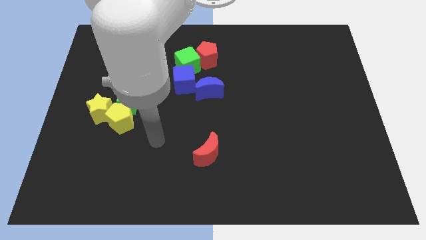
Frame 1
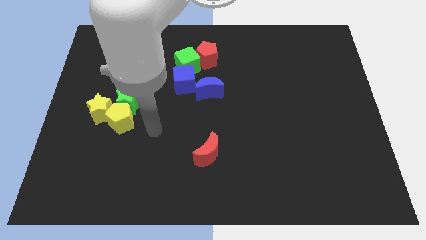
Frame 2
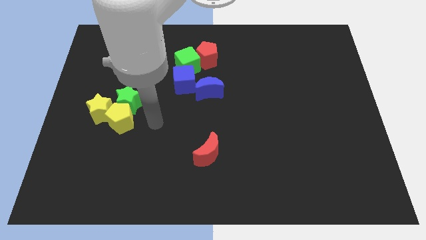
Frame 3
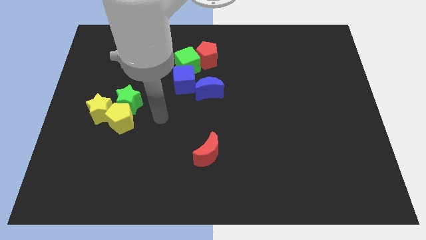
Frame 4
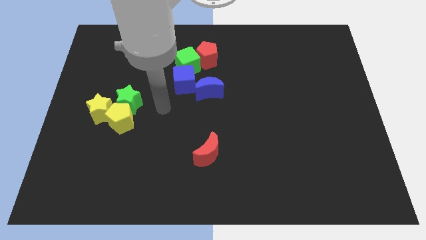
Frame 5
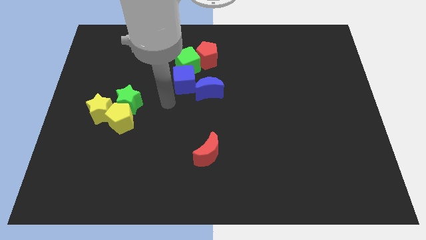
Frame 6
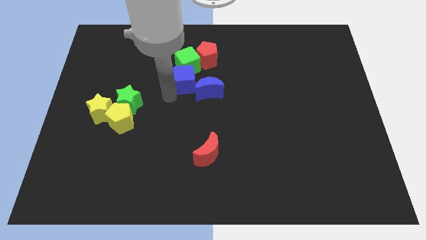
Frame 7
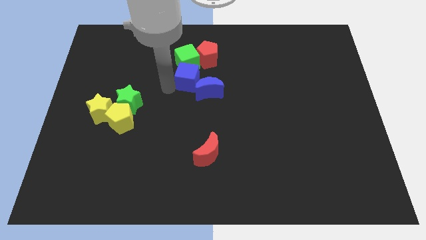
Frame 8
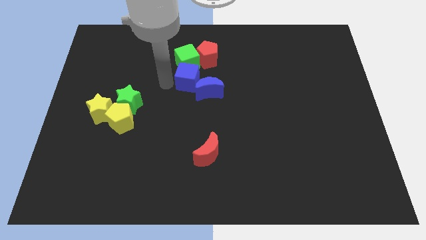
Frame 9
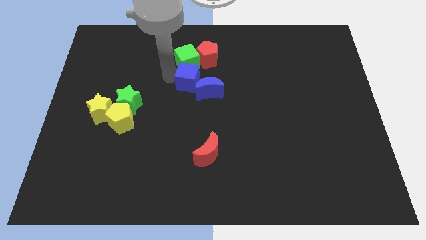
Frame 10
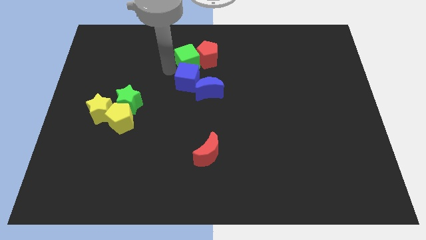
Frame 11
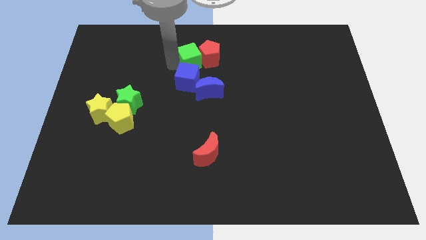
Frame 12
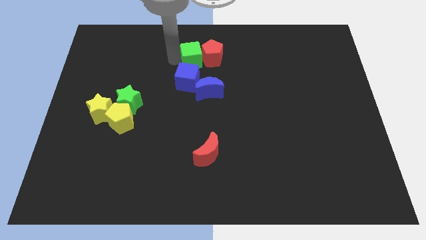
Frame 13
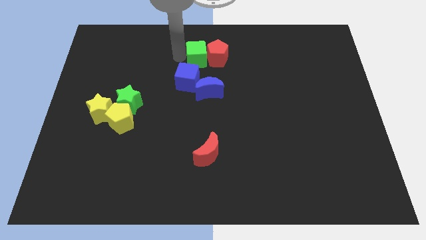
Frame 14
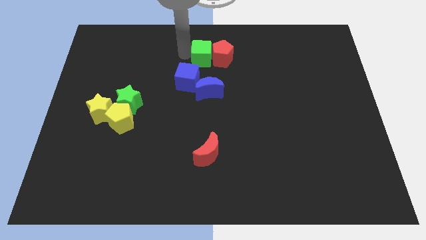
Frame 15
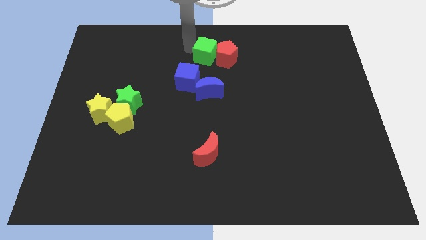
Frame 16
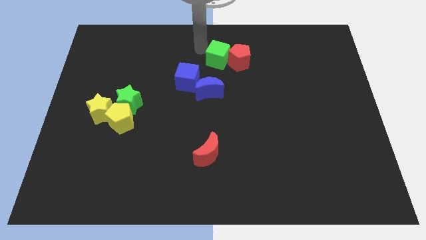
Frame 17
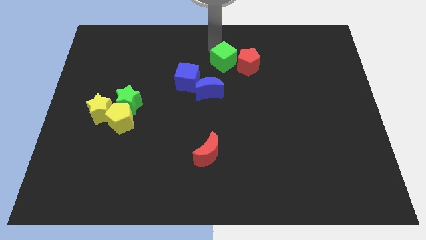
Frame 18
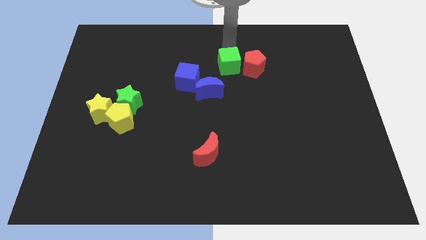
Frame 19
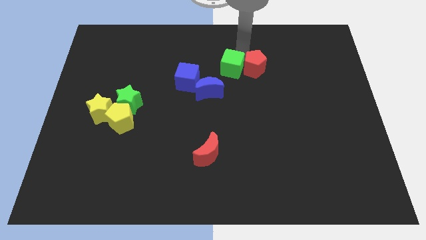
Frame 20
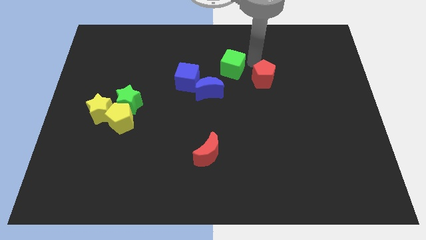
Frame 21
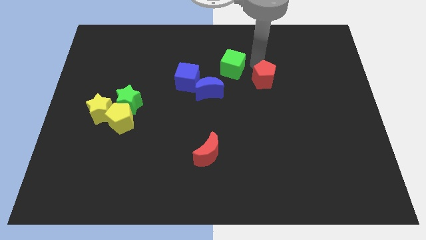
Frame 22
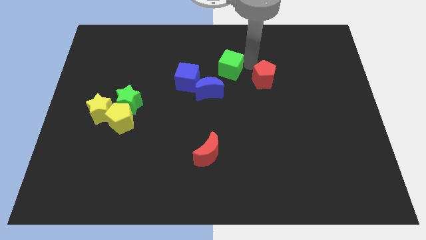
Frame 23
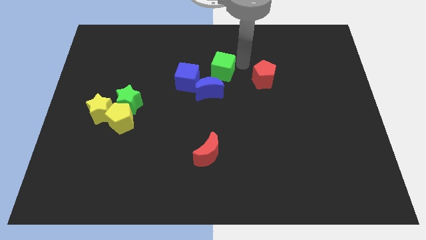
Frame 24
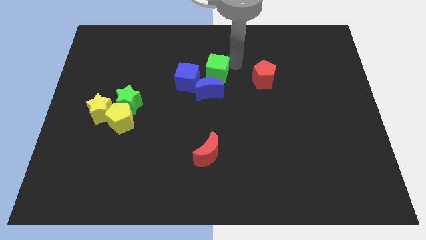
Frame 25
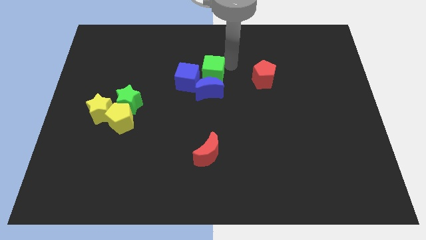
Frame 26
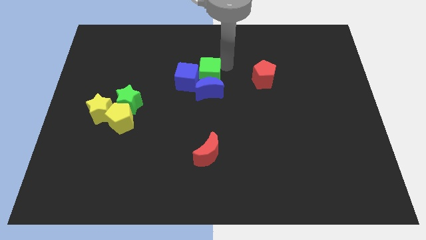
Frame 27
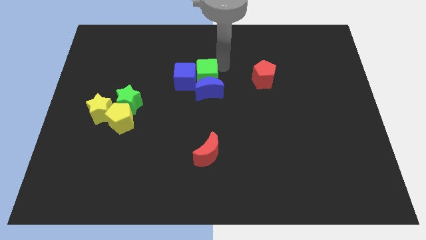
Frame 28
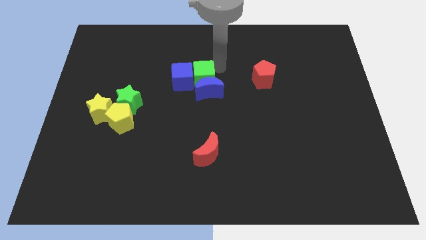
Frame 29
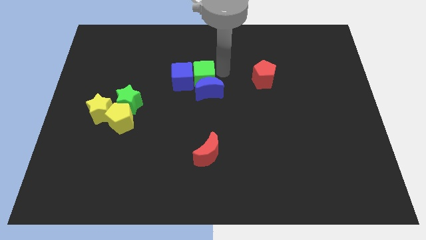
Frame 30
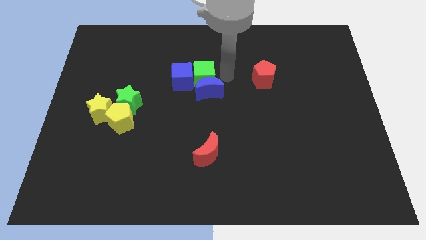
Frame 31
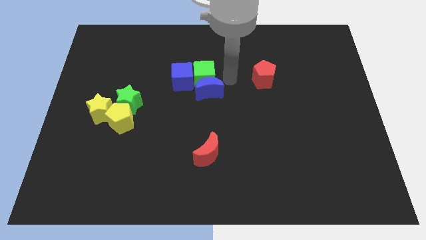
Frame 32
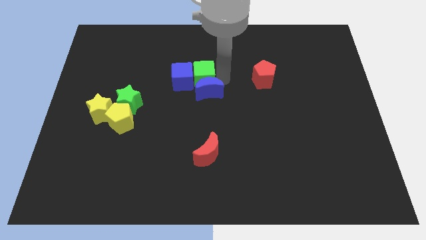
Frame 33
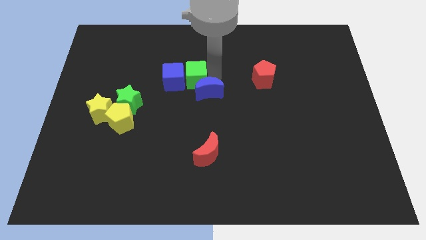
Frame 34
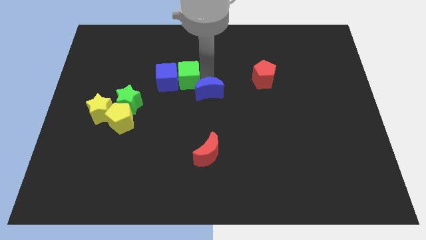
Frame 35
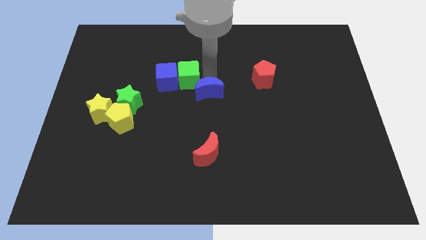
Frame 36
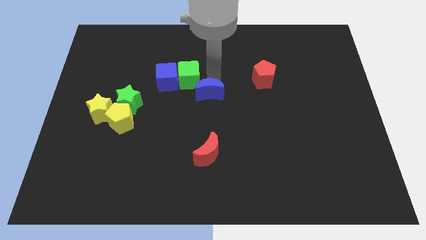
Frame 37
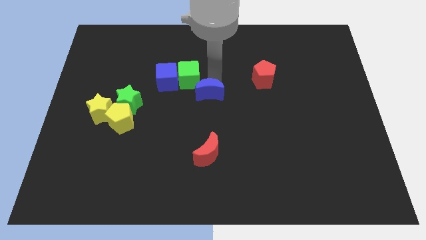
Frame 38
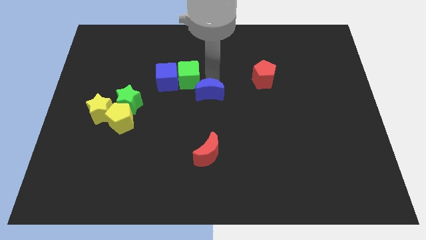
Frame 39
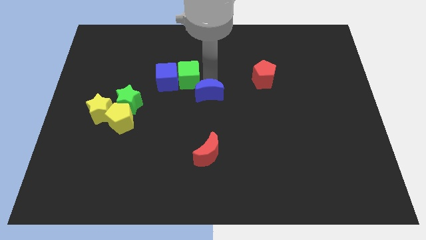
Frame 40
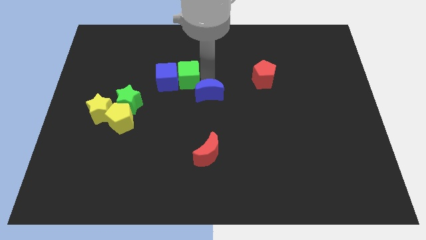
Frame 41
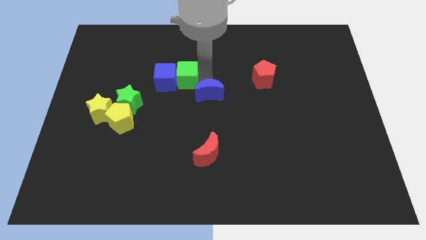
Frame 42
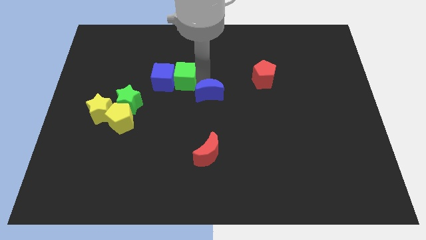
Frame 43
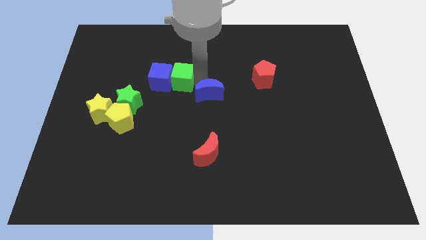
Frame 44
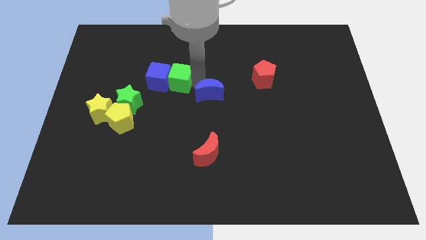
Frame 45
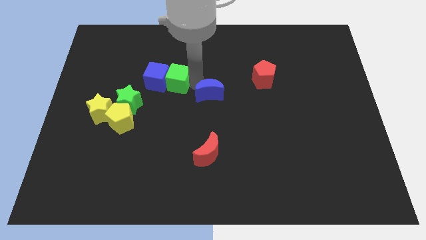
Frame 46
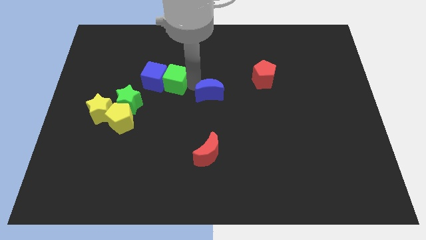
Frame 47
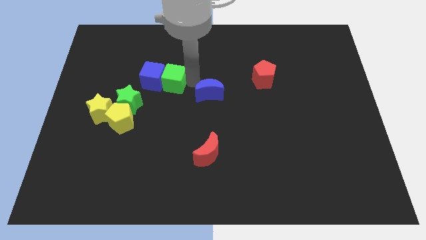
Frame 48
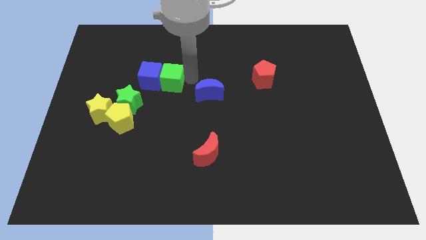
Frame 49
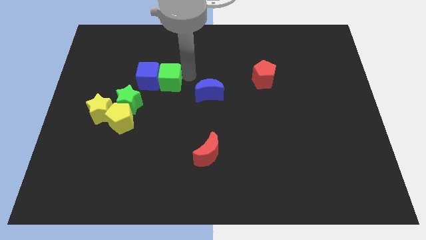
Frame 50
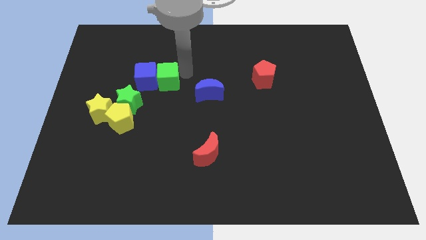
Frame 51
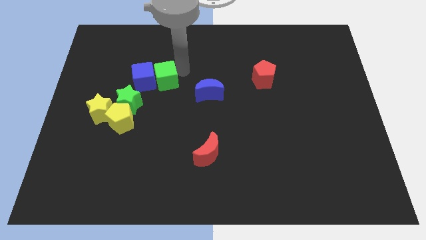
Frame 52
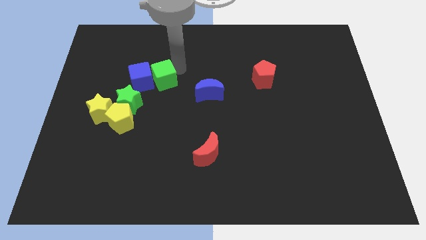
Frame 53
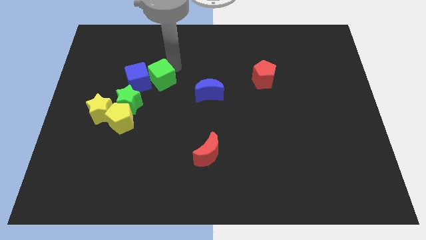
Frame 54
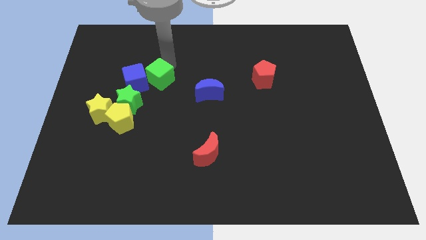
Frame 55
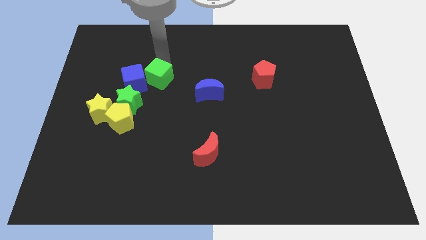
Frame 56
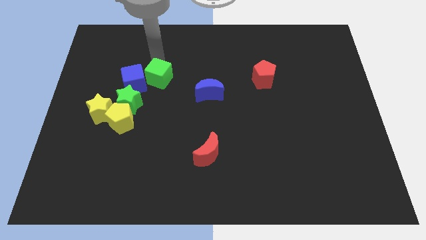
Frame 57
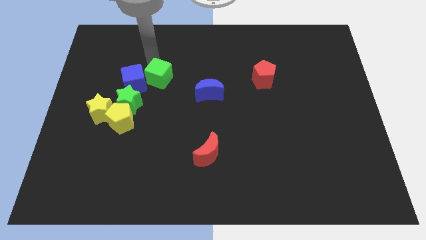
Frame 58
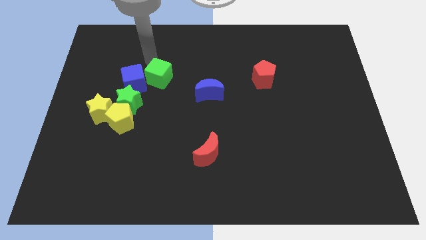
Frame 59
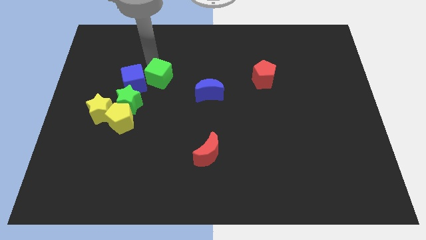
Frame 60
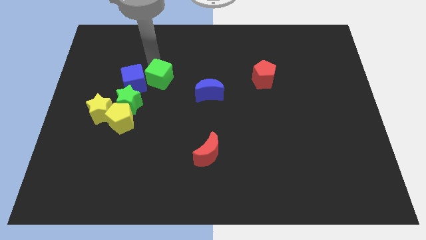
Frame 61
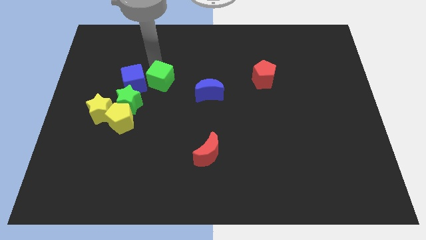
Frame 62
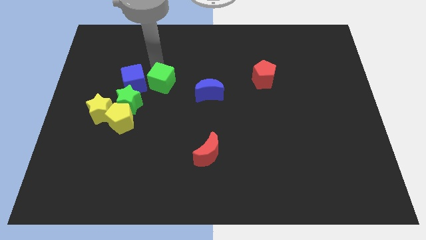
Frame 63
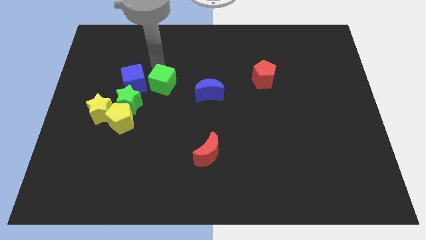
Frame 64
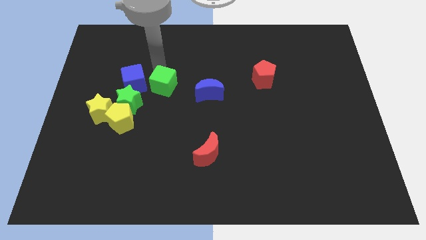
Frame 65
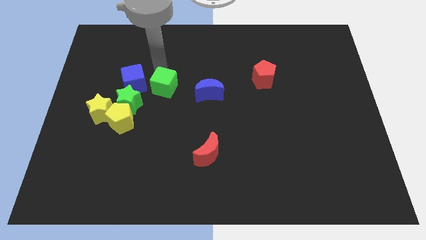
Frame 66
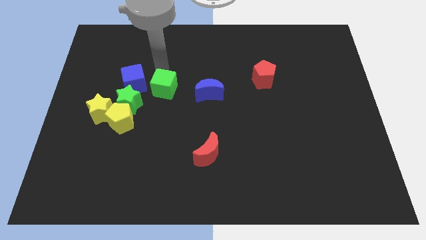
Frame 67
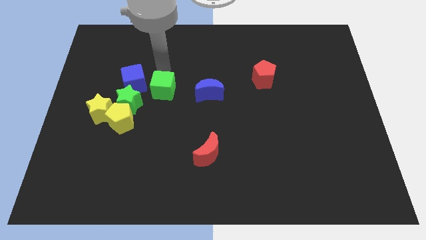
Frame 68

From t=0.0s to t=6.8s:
move the green cube down a little bit

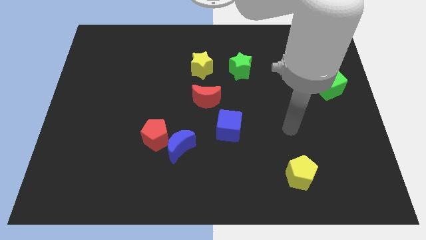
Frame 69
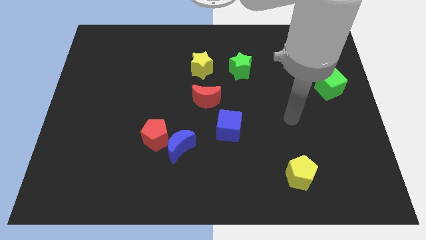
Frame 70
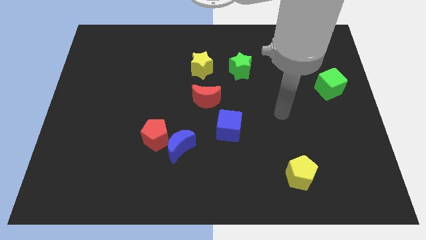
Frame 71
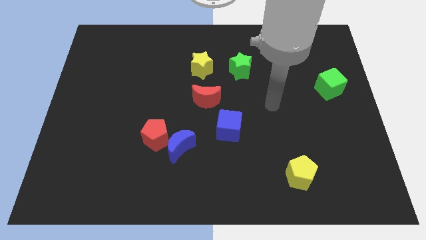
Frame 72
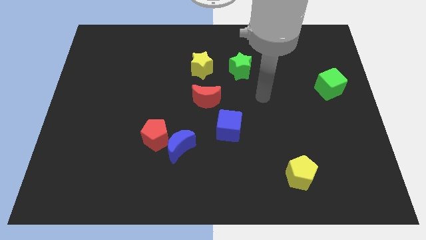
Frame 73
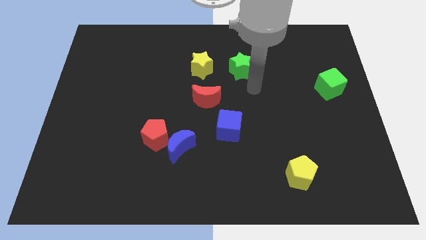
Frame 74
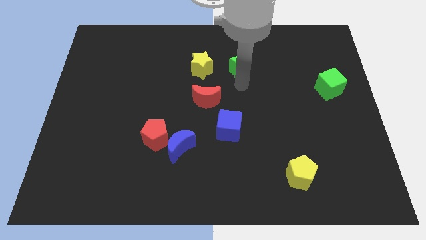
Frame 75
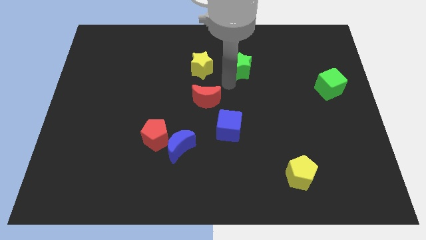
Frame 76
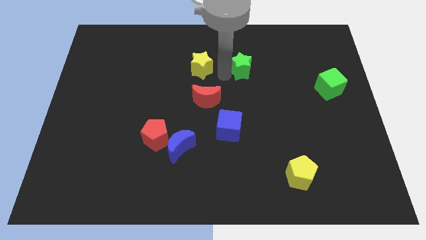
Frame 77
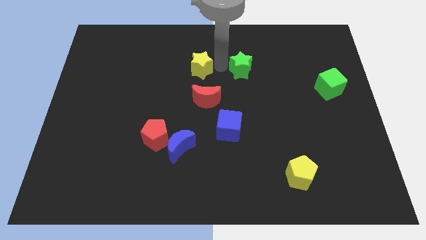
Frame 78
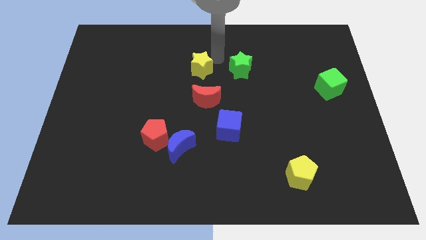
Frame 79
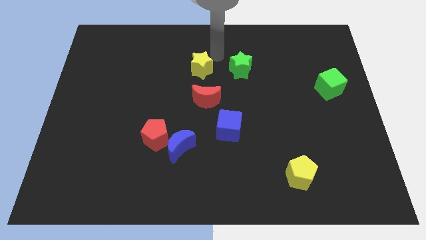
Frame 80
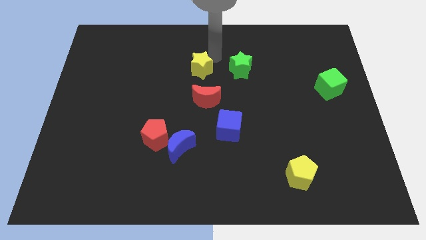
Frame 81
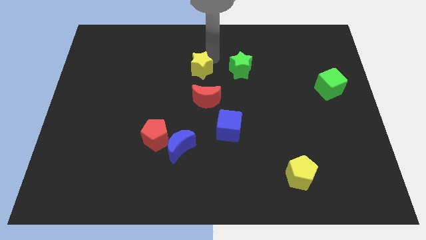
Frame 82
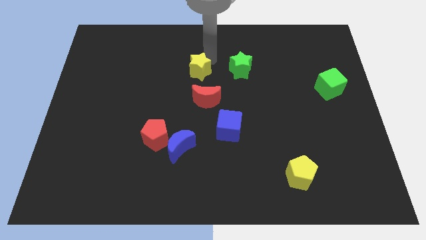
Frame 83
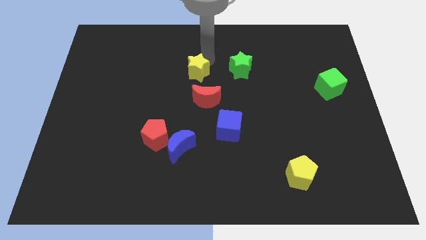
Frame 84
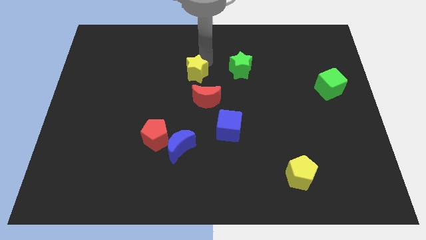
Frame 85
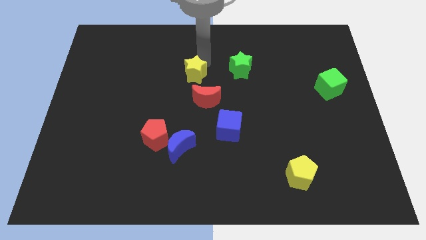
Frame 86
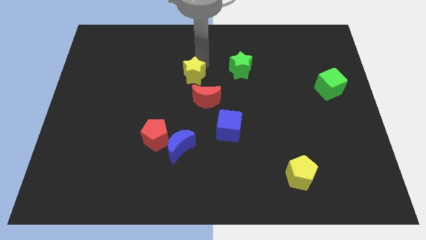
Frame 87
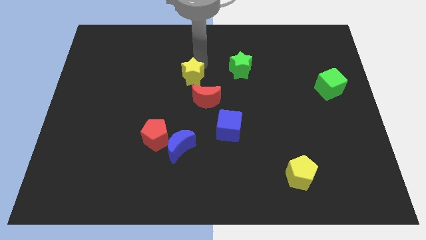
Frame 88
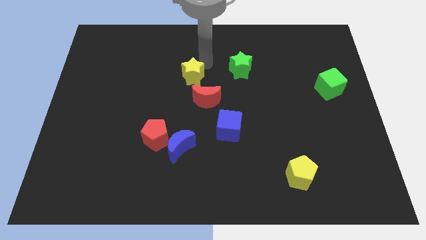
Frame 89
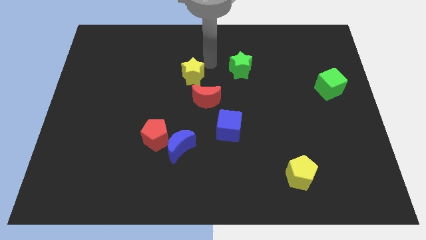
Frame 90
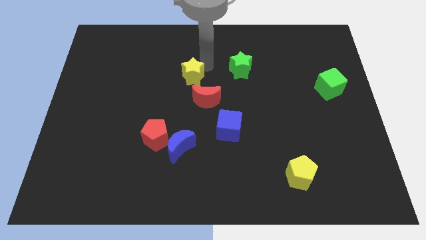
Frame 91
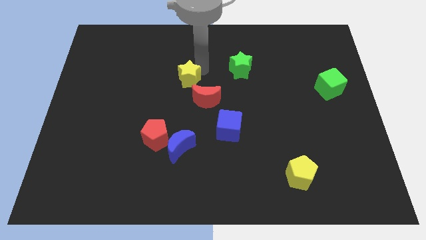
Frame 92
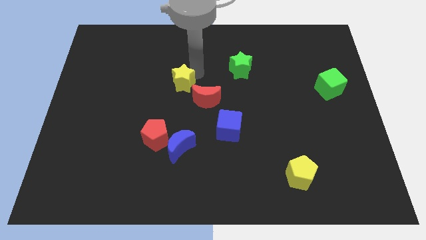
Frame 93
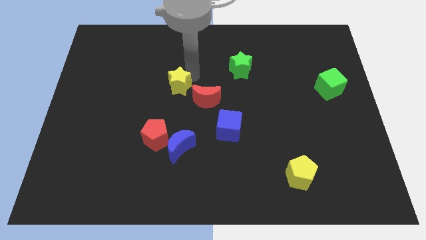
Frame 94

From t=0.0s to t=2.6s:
slide the yellow star a little bit down and then left
